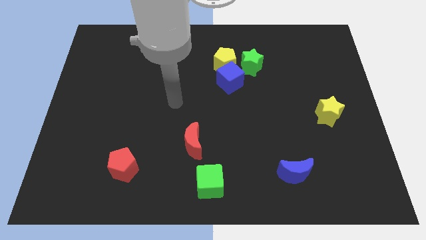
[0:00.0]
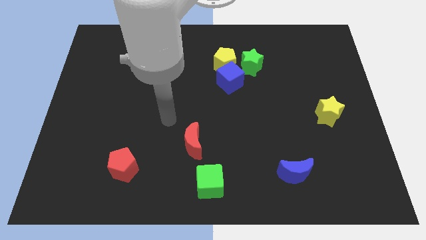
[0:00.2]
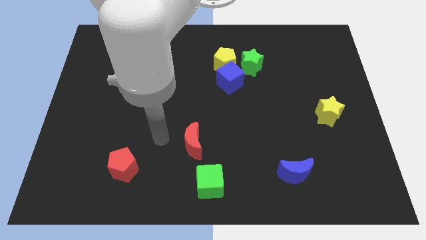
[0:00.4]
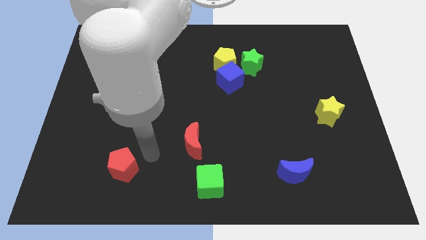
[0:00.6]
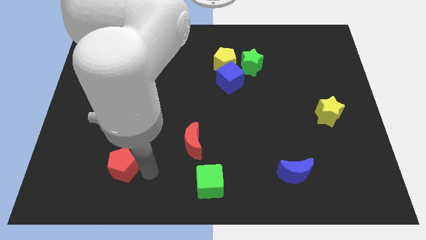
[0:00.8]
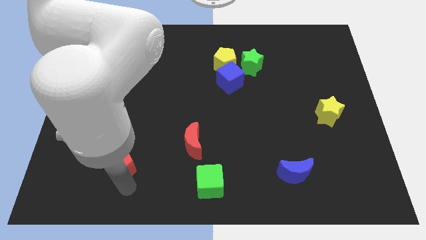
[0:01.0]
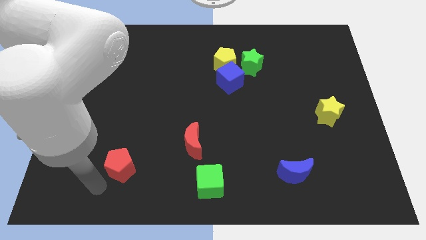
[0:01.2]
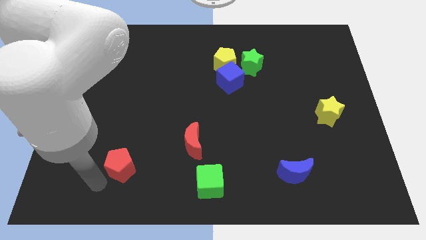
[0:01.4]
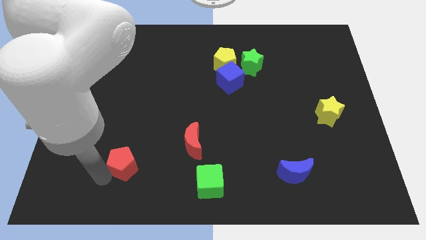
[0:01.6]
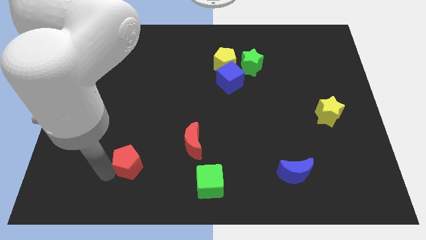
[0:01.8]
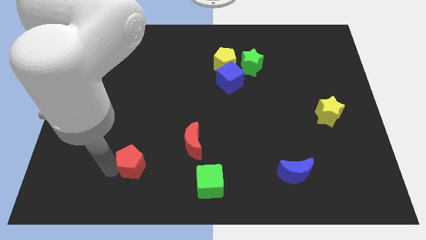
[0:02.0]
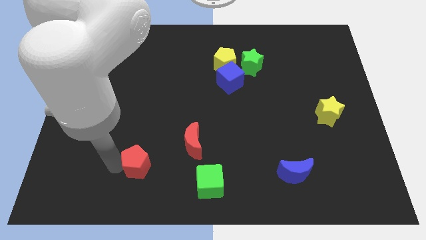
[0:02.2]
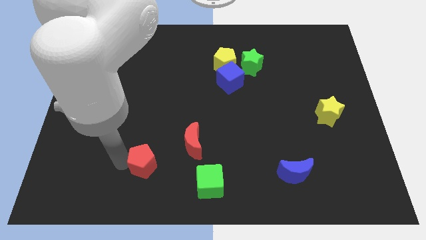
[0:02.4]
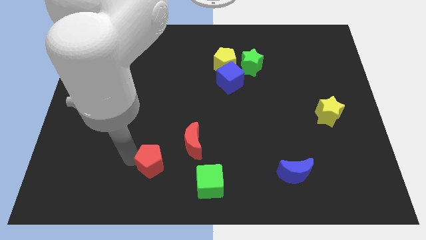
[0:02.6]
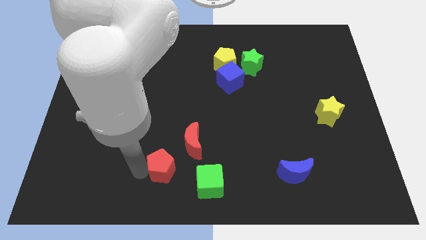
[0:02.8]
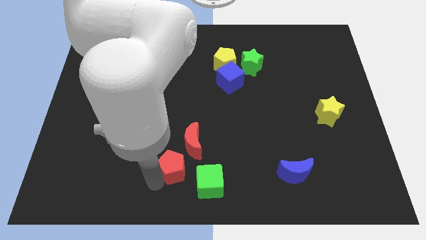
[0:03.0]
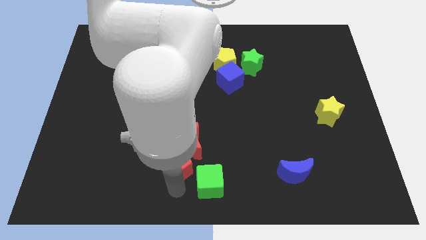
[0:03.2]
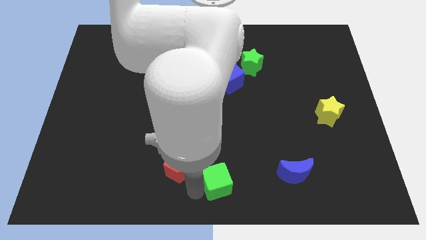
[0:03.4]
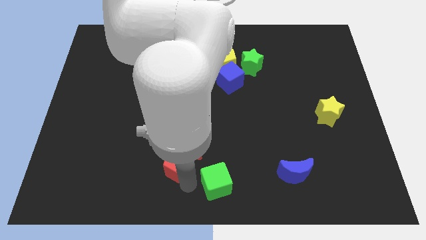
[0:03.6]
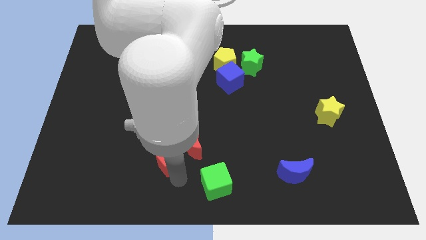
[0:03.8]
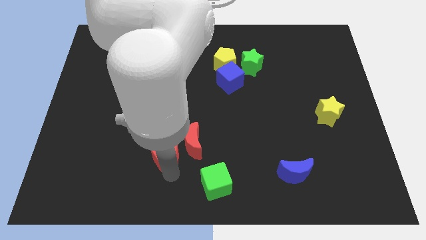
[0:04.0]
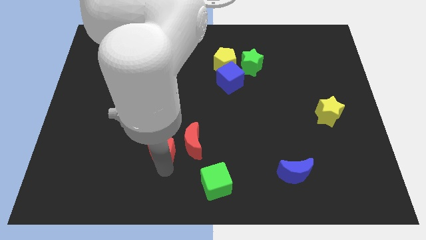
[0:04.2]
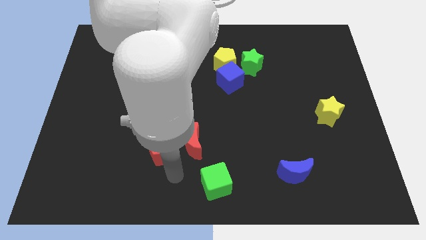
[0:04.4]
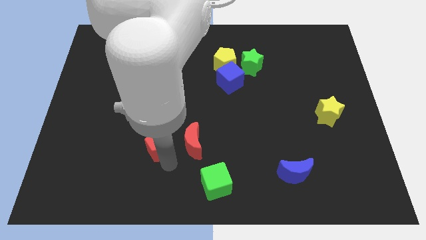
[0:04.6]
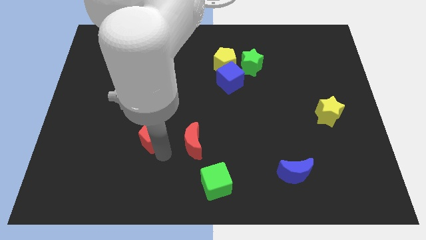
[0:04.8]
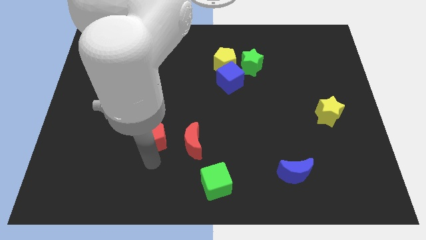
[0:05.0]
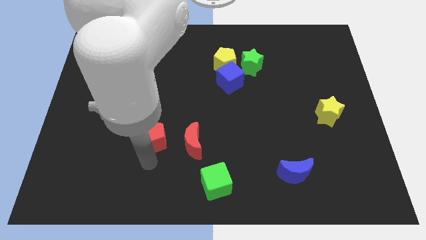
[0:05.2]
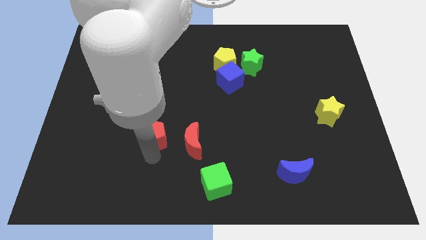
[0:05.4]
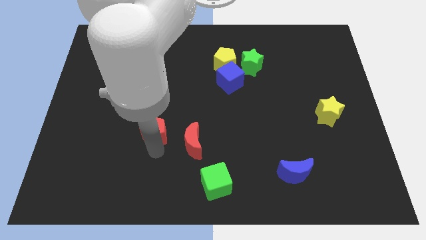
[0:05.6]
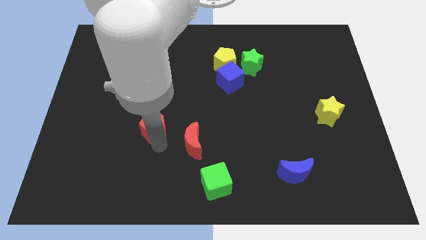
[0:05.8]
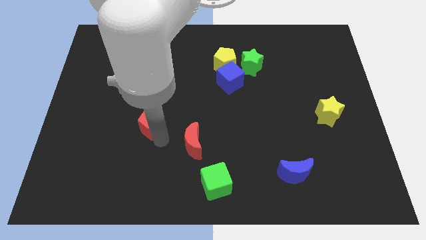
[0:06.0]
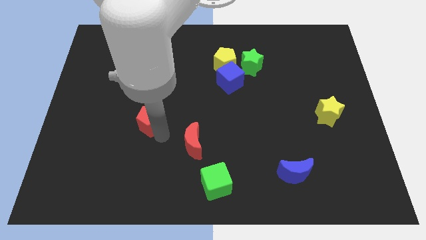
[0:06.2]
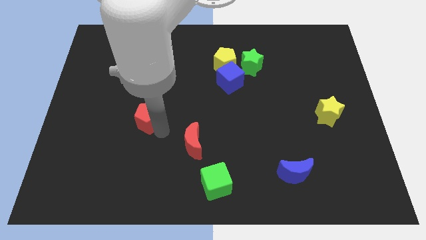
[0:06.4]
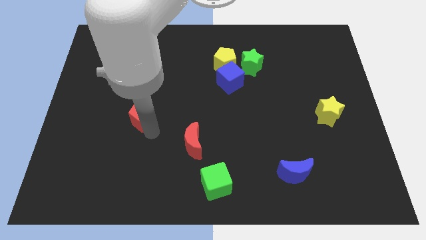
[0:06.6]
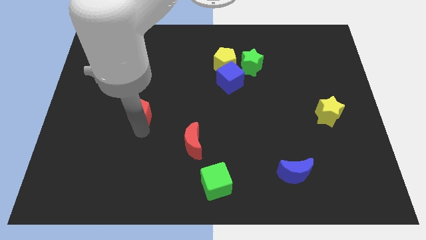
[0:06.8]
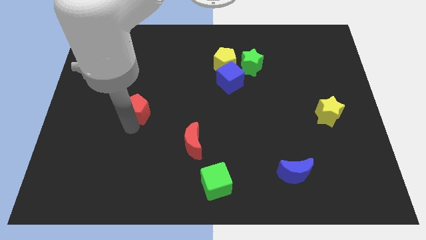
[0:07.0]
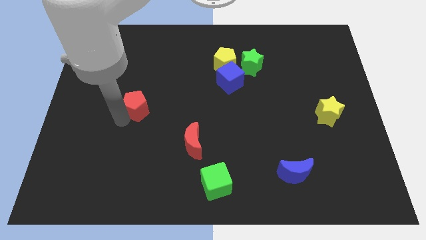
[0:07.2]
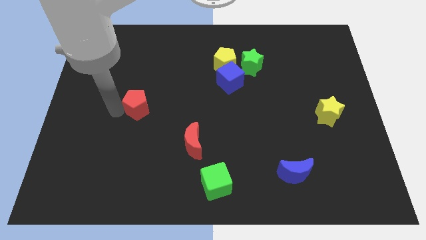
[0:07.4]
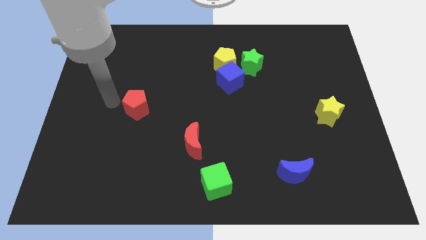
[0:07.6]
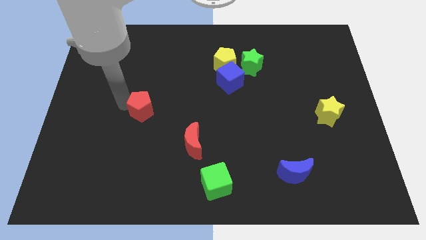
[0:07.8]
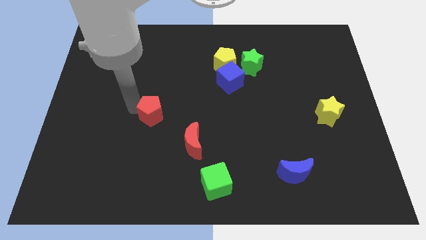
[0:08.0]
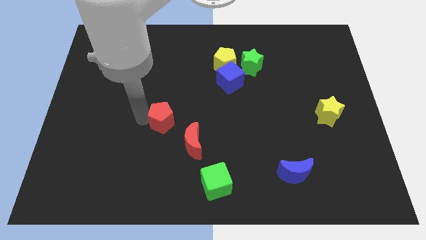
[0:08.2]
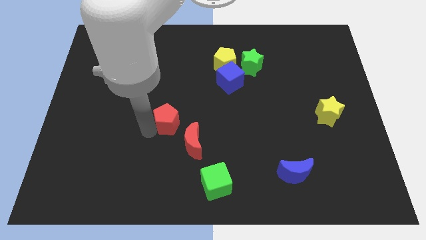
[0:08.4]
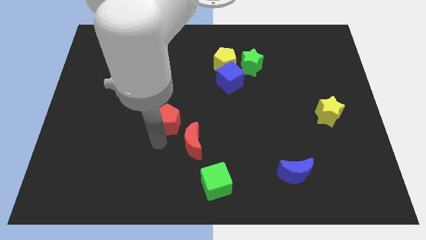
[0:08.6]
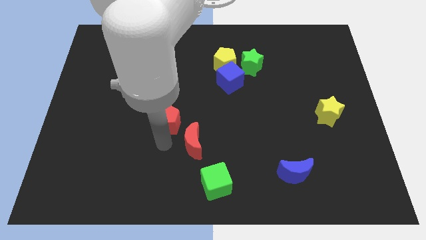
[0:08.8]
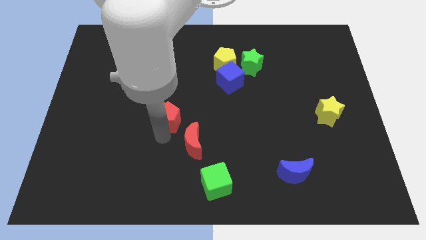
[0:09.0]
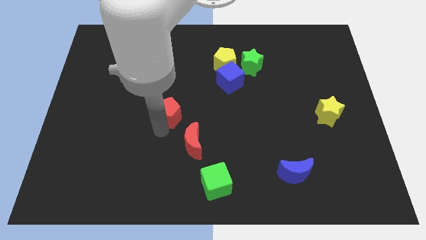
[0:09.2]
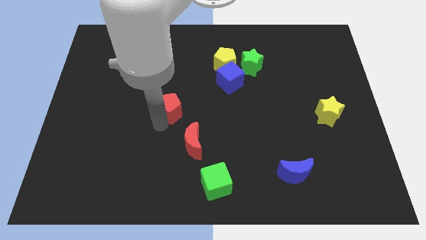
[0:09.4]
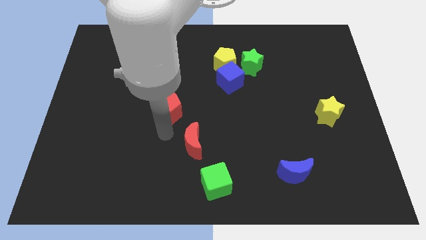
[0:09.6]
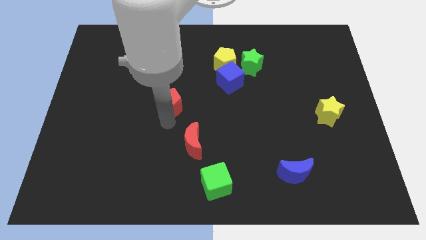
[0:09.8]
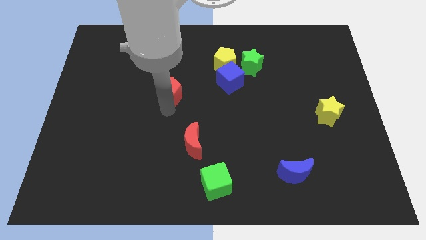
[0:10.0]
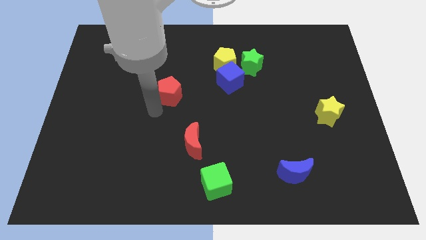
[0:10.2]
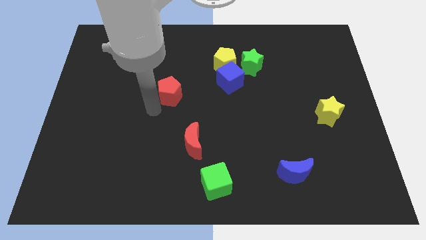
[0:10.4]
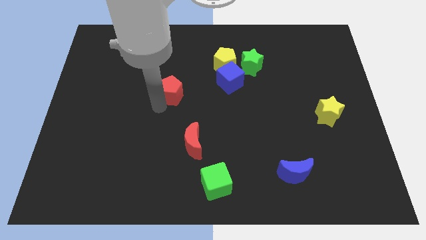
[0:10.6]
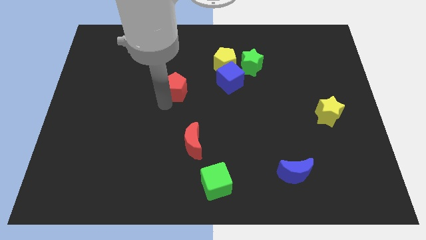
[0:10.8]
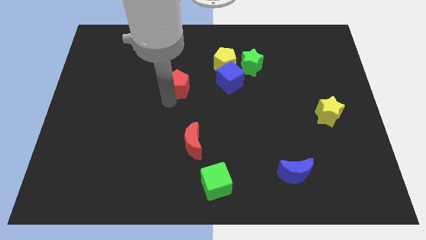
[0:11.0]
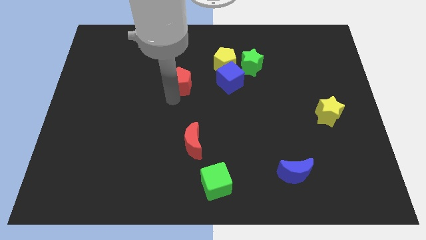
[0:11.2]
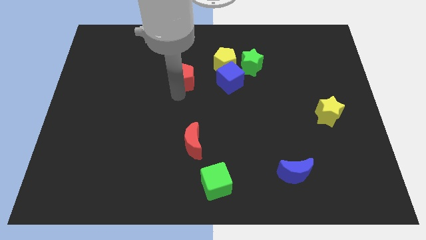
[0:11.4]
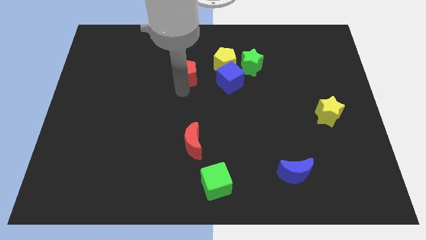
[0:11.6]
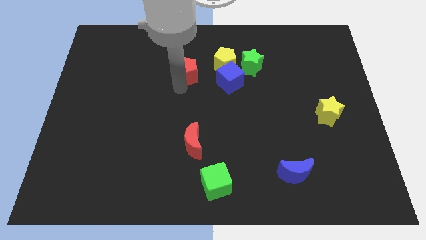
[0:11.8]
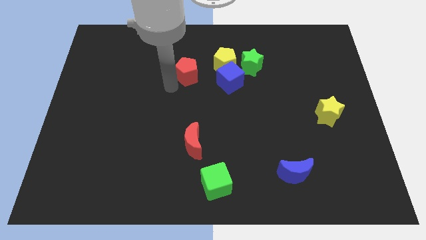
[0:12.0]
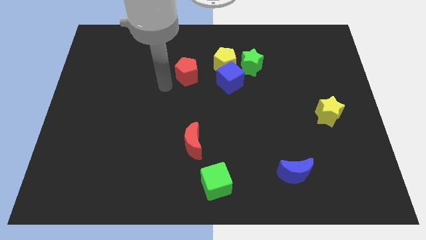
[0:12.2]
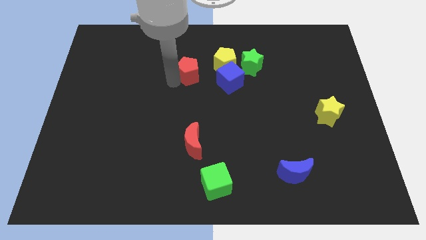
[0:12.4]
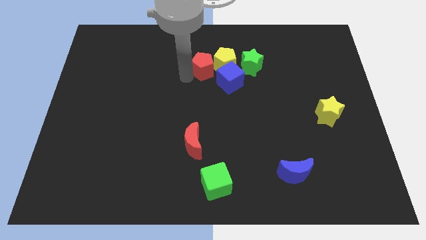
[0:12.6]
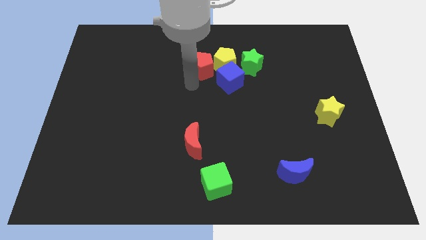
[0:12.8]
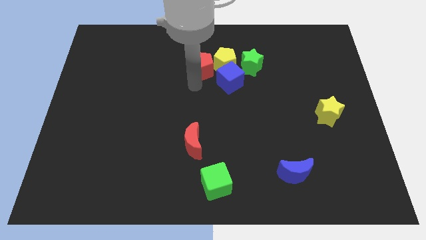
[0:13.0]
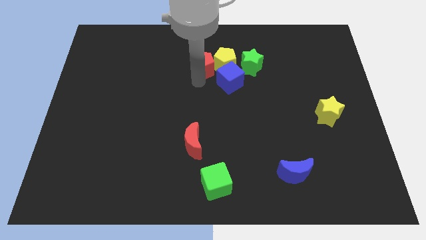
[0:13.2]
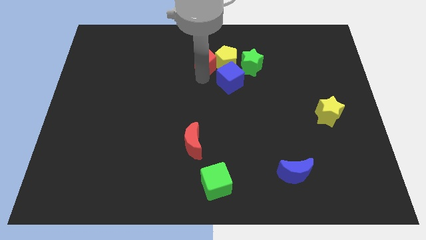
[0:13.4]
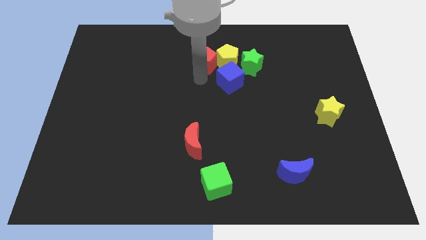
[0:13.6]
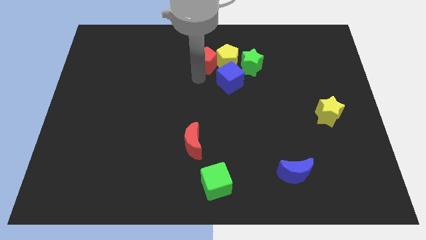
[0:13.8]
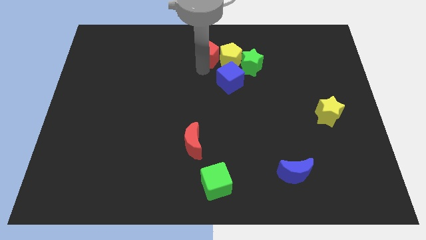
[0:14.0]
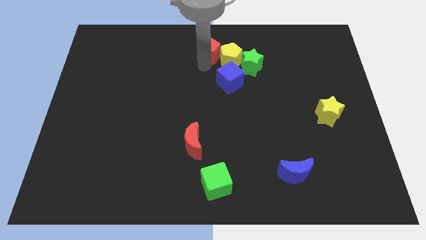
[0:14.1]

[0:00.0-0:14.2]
push the red pentagon to the top
